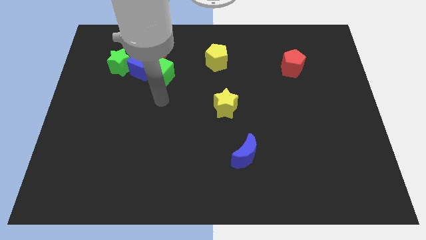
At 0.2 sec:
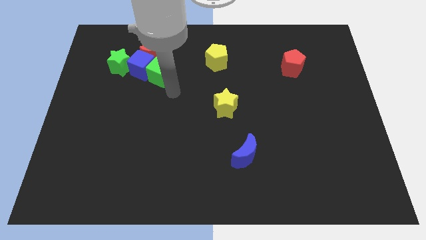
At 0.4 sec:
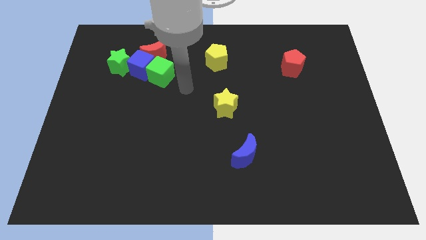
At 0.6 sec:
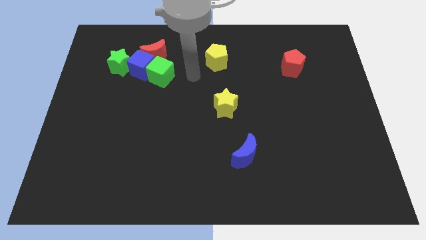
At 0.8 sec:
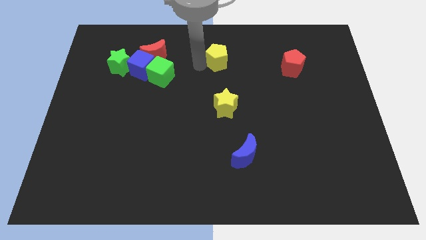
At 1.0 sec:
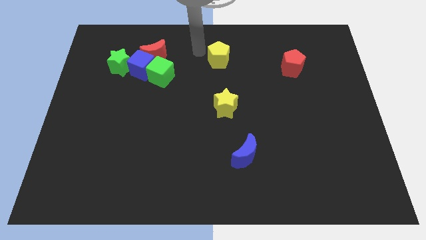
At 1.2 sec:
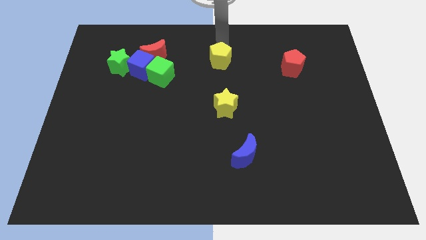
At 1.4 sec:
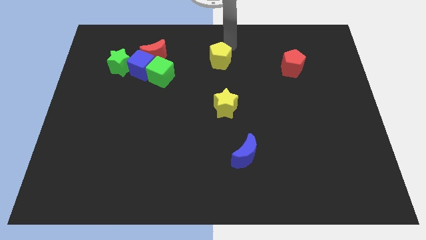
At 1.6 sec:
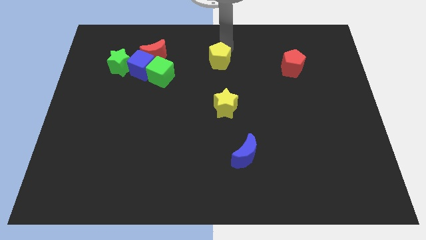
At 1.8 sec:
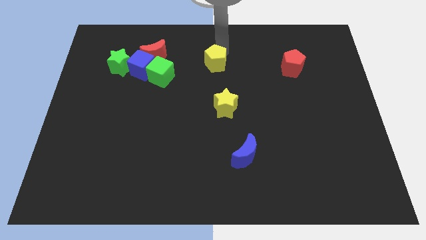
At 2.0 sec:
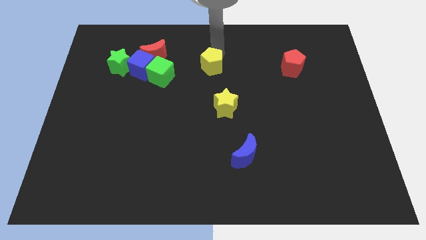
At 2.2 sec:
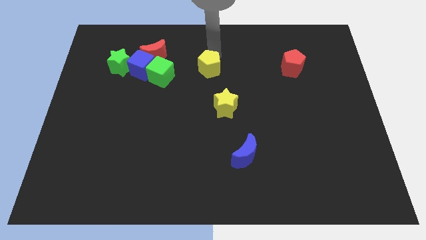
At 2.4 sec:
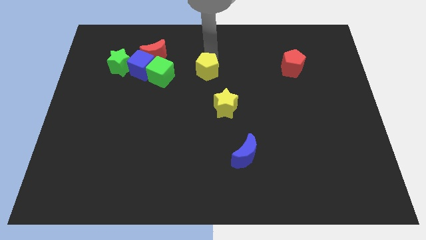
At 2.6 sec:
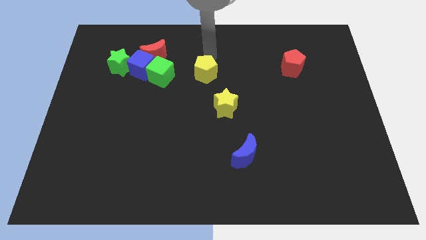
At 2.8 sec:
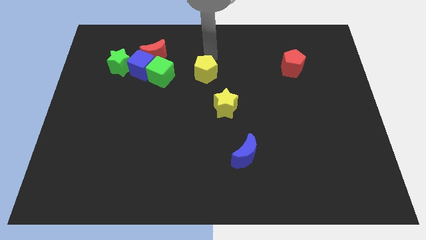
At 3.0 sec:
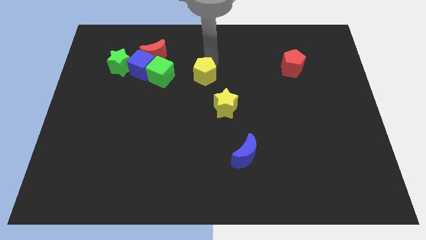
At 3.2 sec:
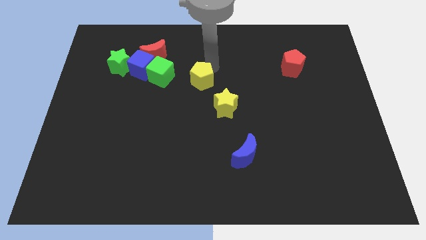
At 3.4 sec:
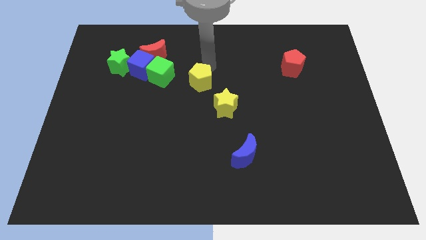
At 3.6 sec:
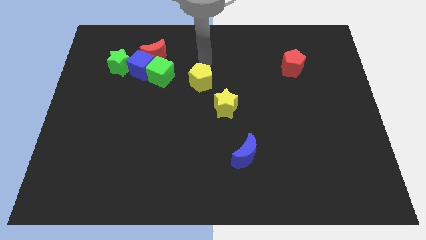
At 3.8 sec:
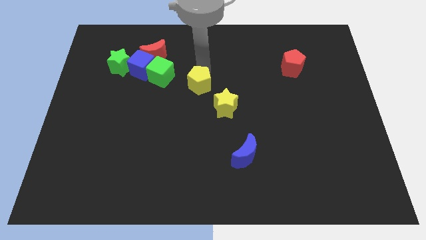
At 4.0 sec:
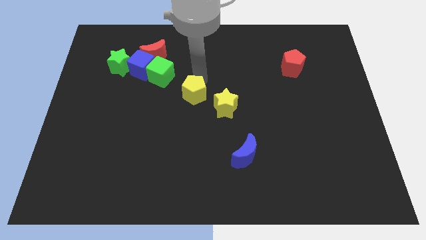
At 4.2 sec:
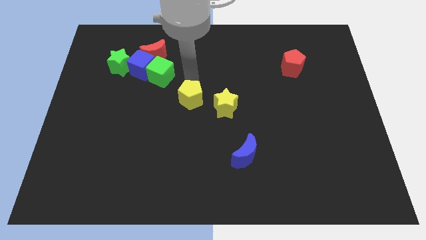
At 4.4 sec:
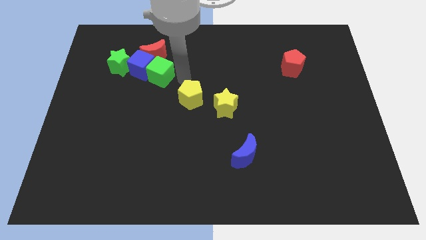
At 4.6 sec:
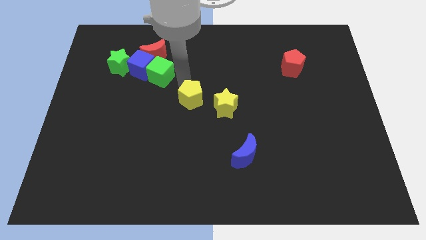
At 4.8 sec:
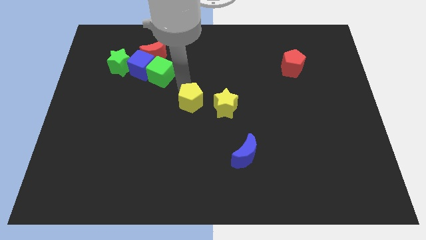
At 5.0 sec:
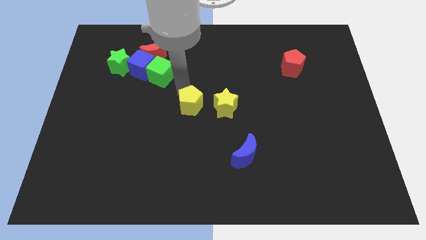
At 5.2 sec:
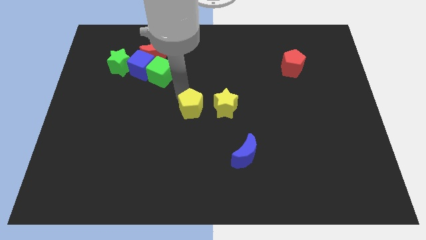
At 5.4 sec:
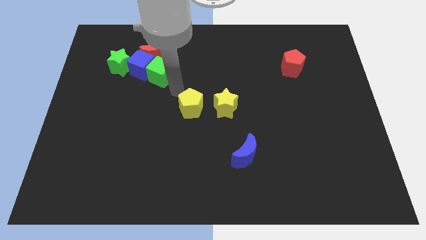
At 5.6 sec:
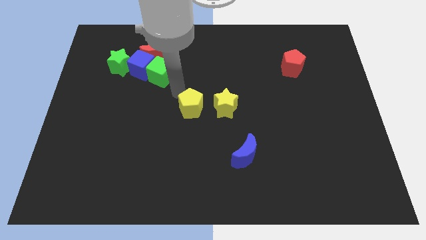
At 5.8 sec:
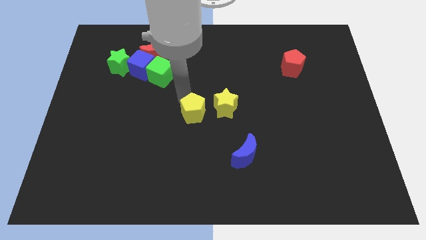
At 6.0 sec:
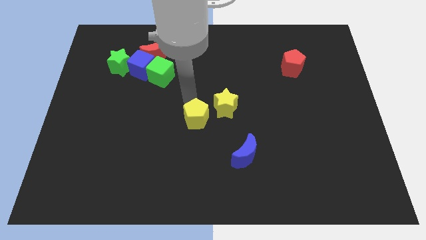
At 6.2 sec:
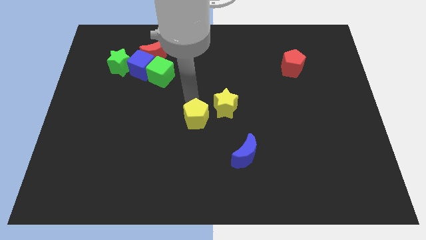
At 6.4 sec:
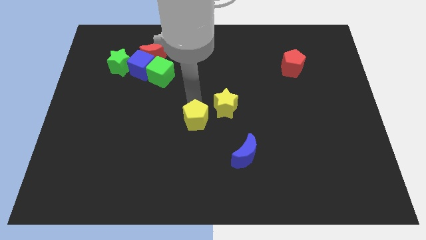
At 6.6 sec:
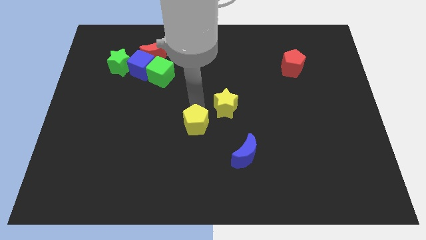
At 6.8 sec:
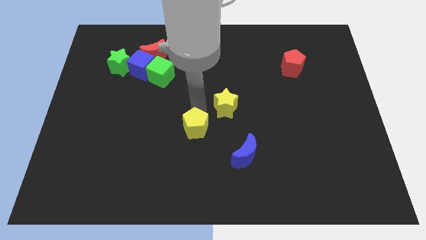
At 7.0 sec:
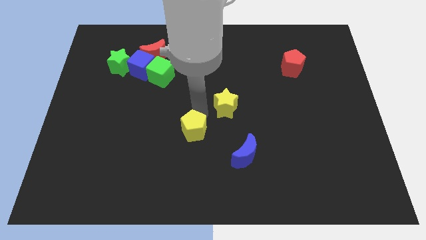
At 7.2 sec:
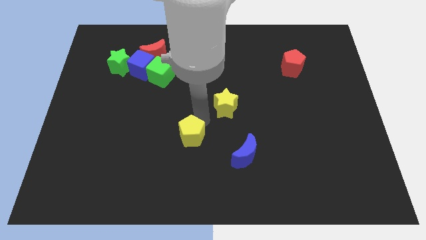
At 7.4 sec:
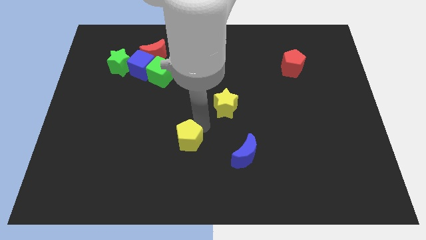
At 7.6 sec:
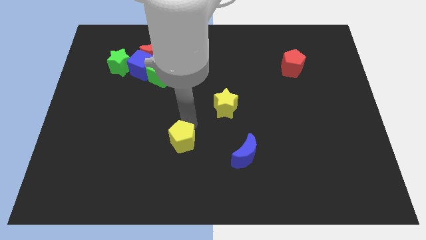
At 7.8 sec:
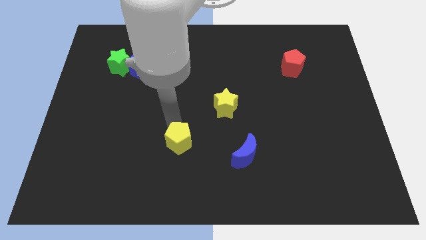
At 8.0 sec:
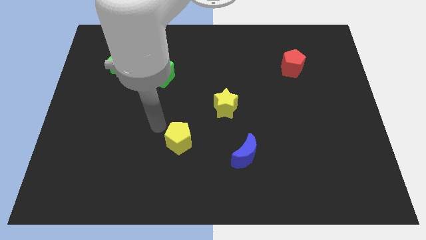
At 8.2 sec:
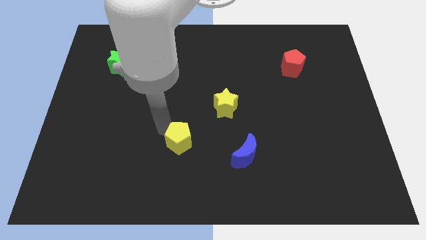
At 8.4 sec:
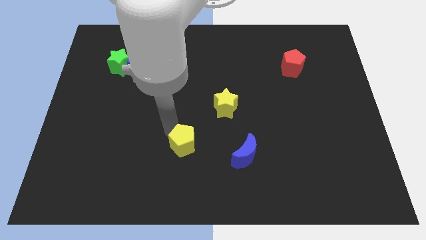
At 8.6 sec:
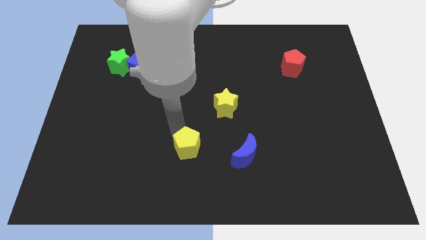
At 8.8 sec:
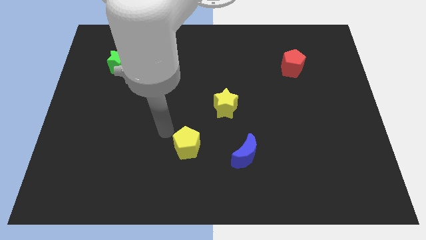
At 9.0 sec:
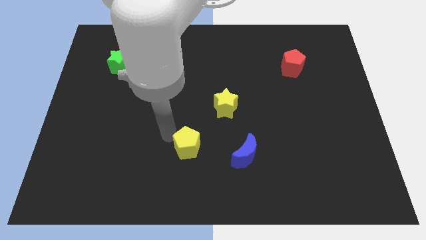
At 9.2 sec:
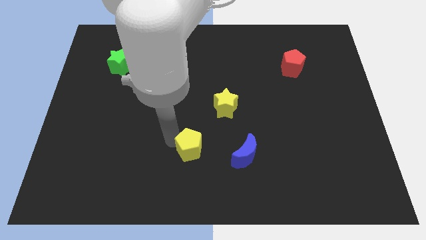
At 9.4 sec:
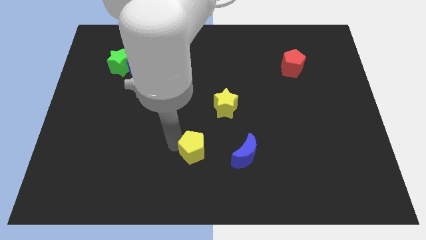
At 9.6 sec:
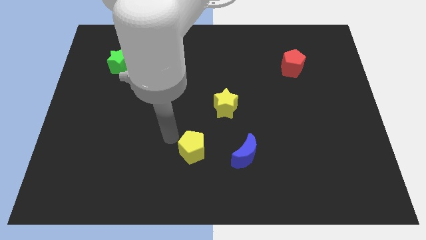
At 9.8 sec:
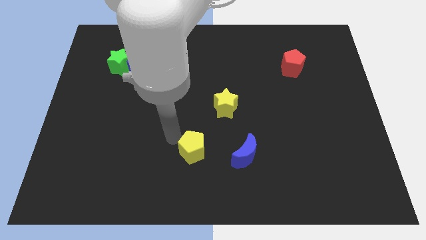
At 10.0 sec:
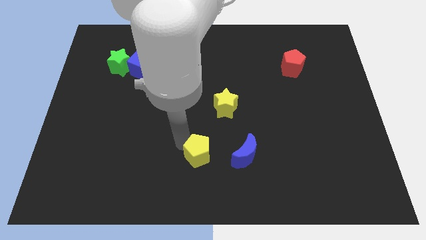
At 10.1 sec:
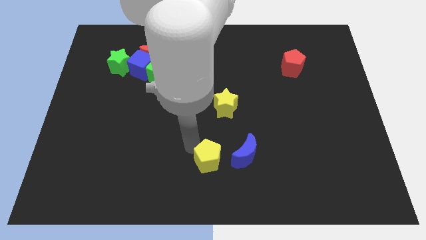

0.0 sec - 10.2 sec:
push the yellow pentagon to the bottom side
